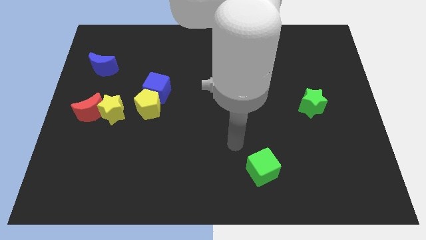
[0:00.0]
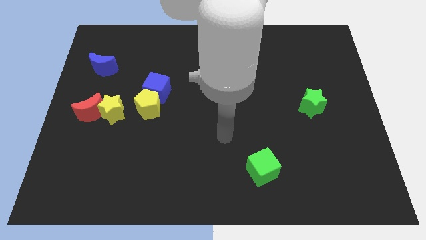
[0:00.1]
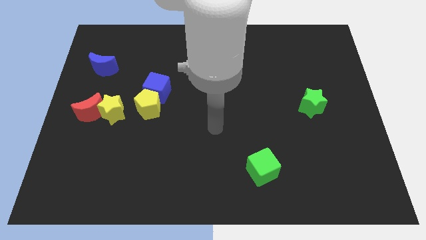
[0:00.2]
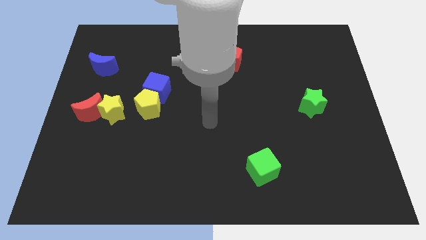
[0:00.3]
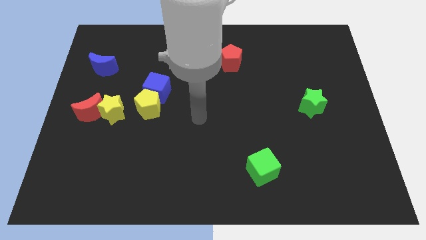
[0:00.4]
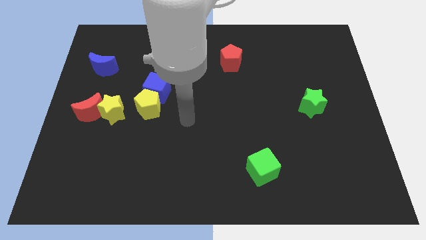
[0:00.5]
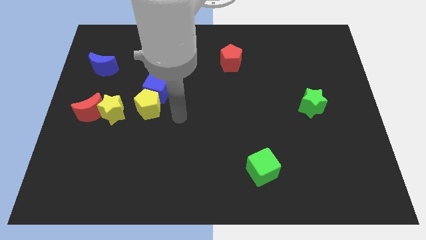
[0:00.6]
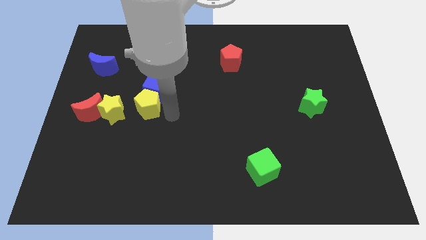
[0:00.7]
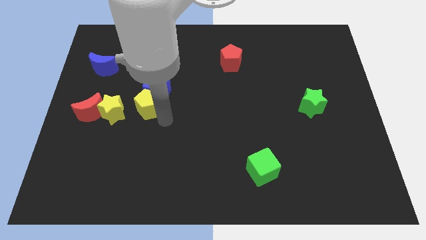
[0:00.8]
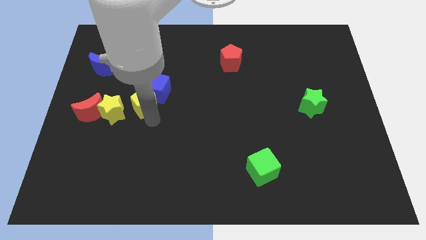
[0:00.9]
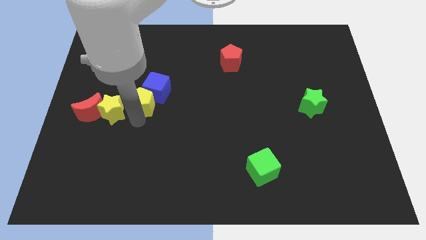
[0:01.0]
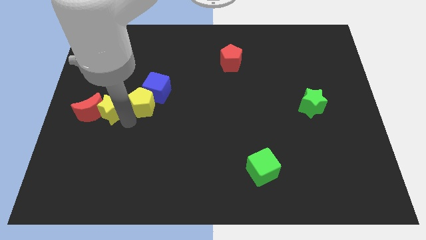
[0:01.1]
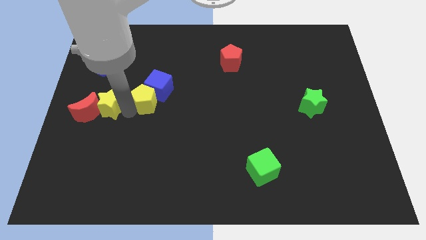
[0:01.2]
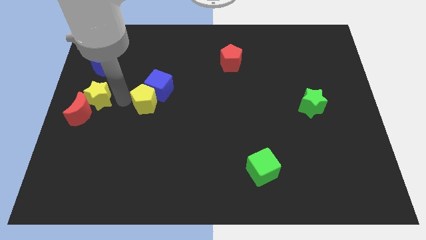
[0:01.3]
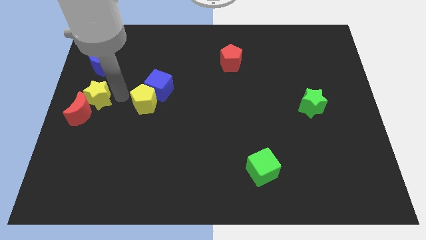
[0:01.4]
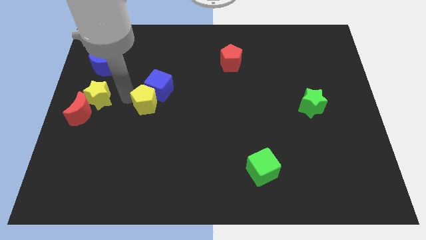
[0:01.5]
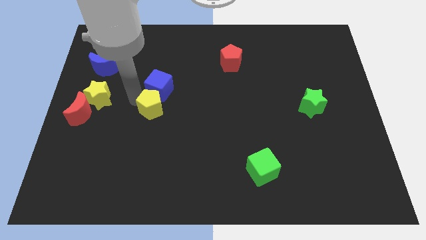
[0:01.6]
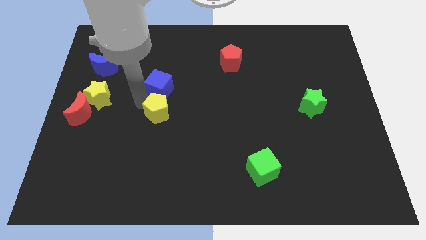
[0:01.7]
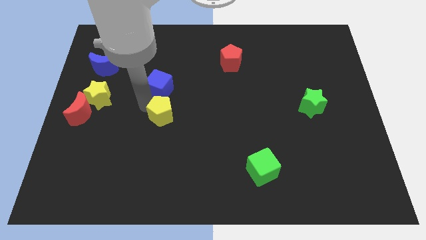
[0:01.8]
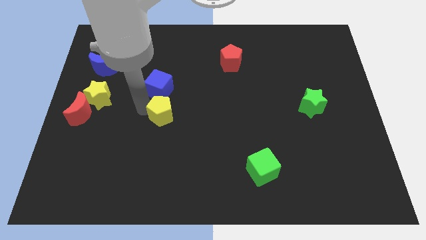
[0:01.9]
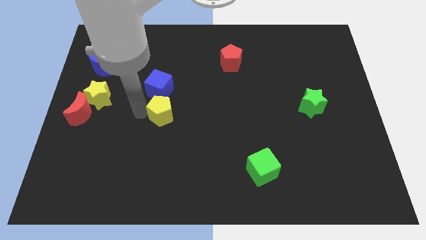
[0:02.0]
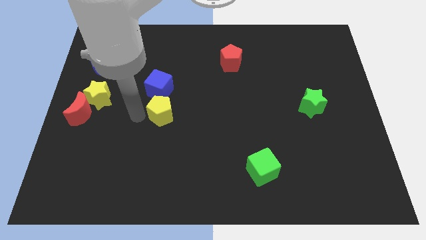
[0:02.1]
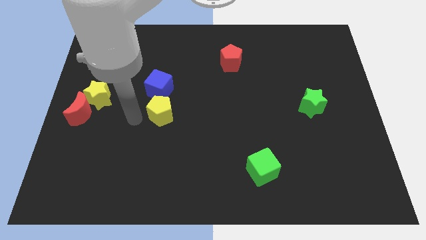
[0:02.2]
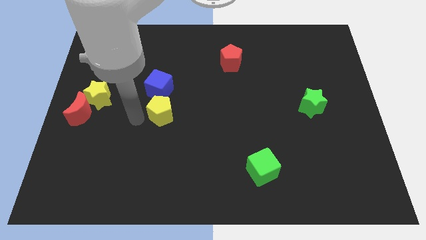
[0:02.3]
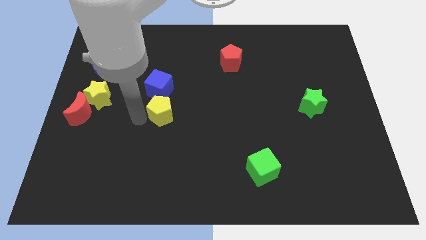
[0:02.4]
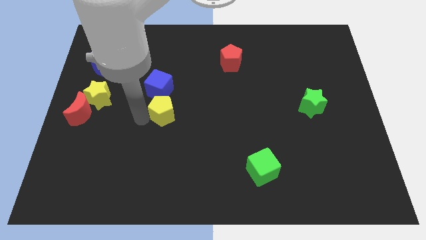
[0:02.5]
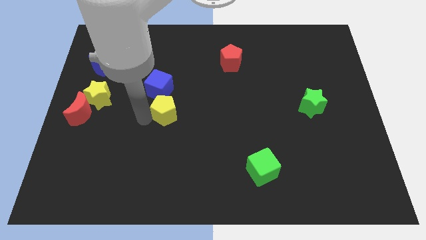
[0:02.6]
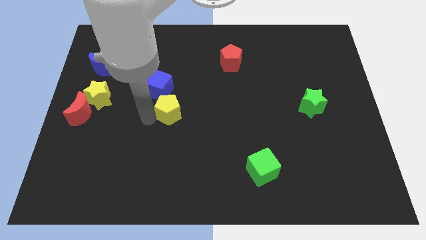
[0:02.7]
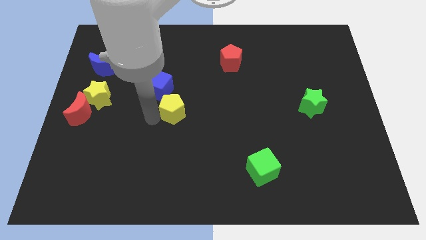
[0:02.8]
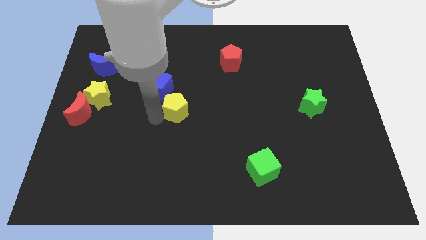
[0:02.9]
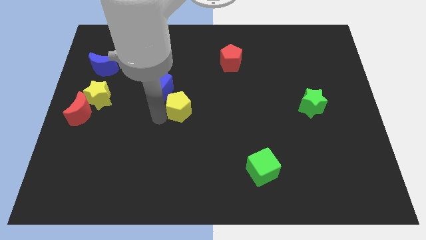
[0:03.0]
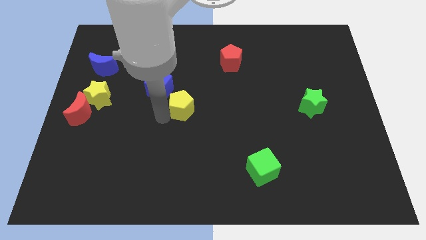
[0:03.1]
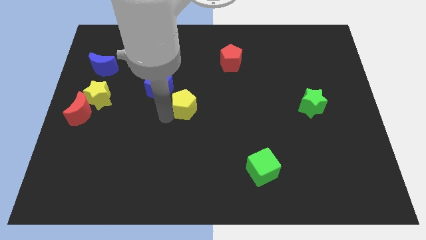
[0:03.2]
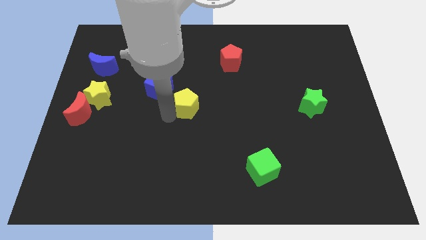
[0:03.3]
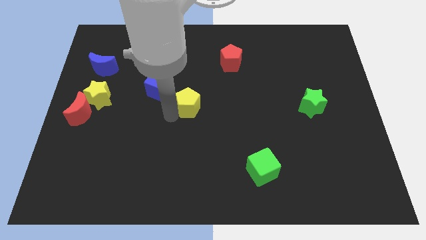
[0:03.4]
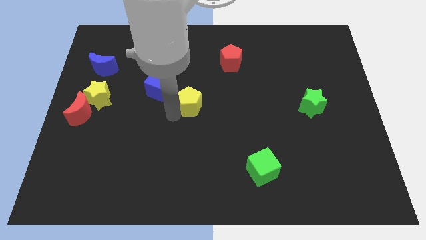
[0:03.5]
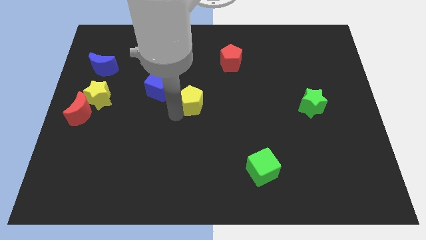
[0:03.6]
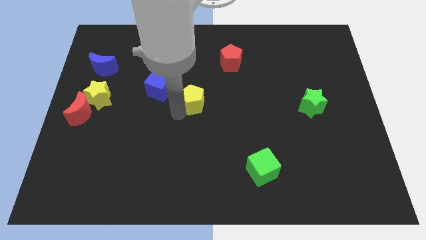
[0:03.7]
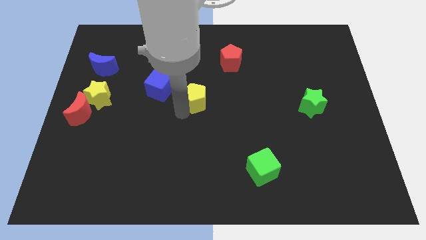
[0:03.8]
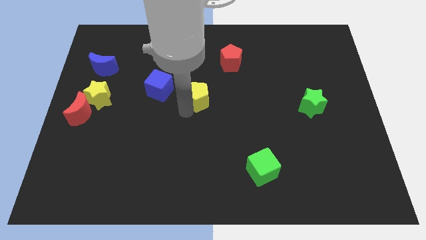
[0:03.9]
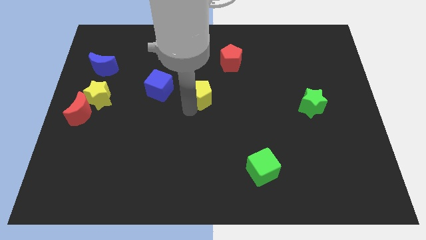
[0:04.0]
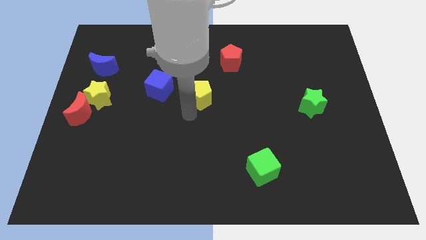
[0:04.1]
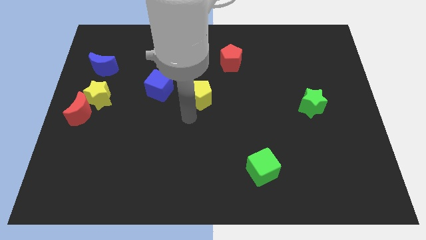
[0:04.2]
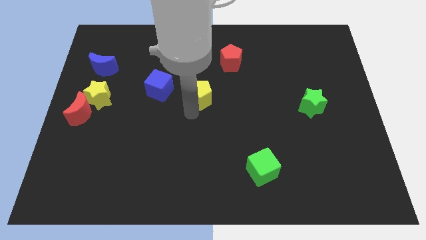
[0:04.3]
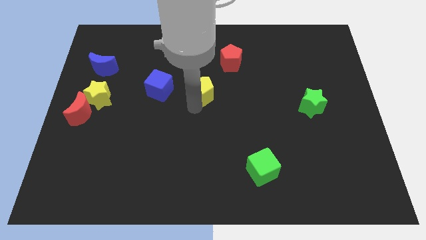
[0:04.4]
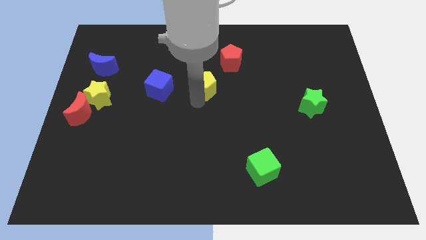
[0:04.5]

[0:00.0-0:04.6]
slide the yellow pentagon to the bottom left of the red pentagon

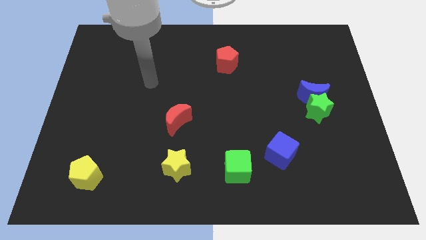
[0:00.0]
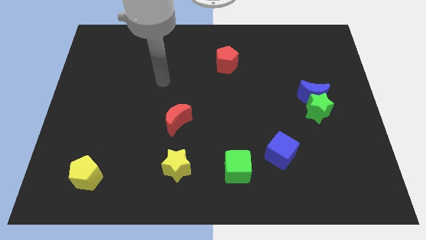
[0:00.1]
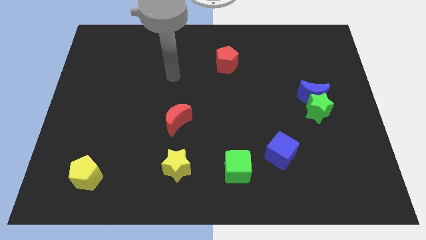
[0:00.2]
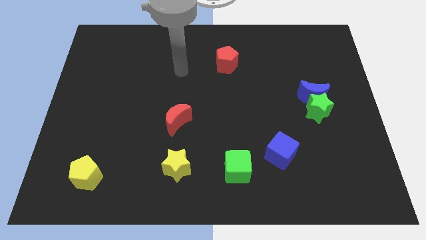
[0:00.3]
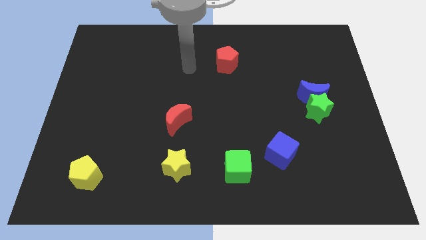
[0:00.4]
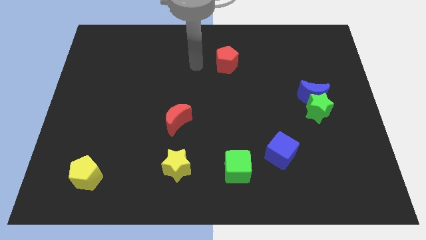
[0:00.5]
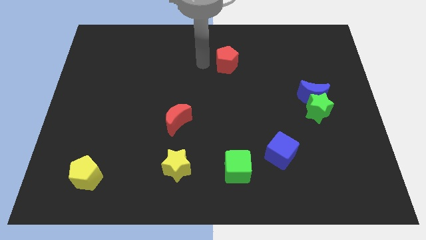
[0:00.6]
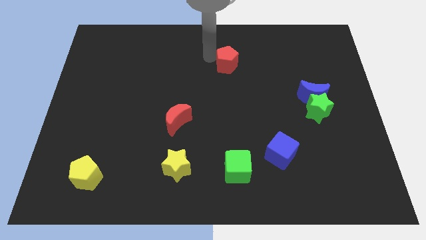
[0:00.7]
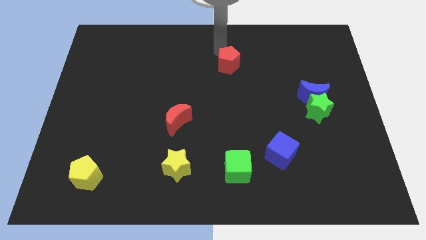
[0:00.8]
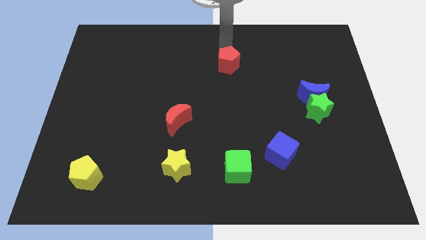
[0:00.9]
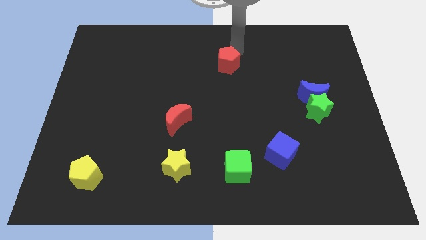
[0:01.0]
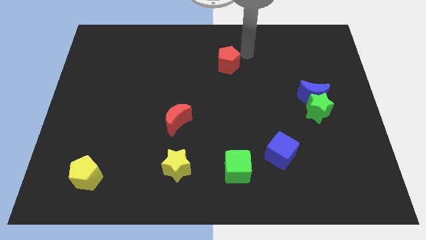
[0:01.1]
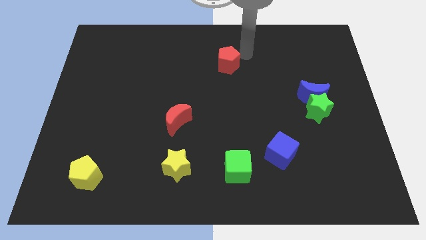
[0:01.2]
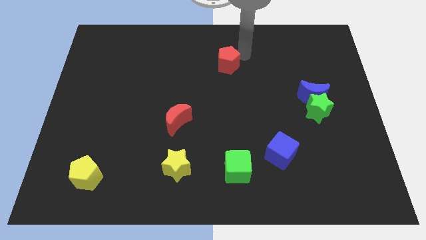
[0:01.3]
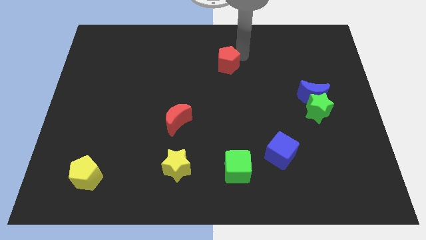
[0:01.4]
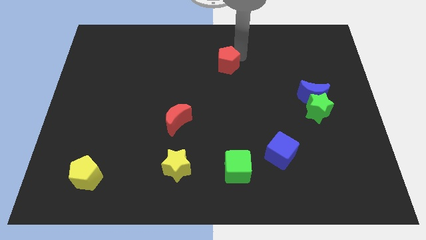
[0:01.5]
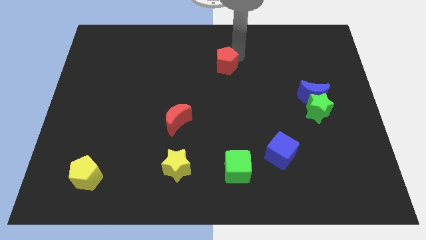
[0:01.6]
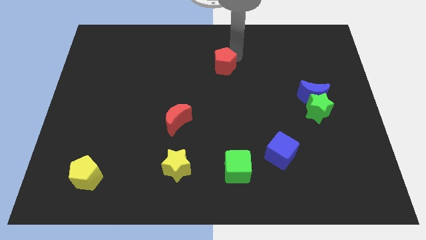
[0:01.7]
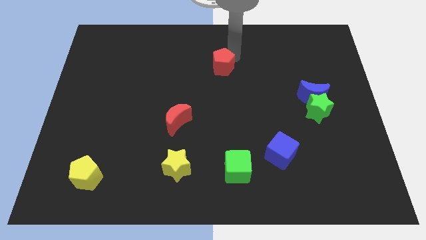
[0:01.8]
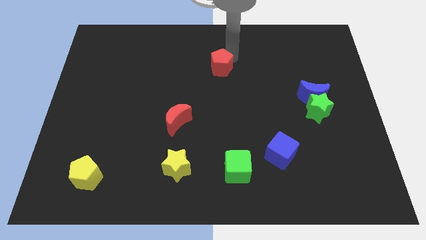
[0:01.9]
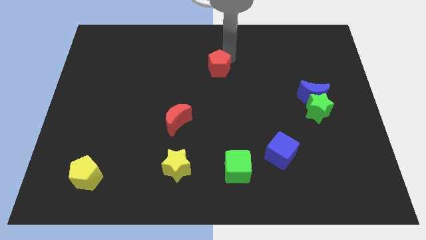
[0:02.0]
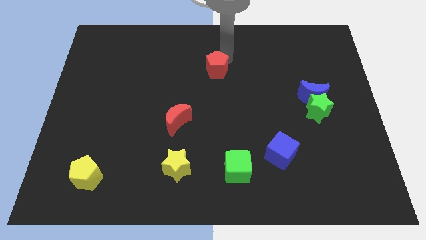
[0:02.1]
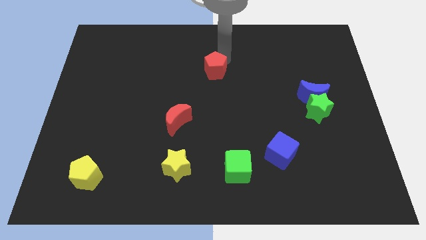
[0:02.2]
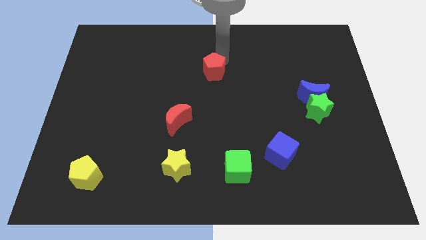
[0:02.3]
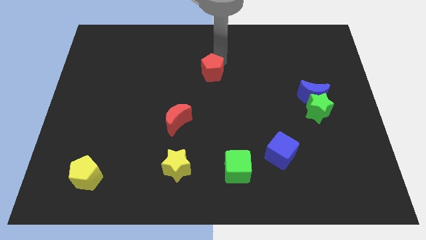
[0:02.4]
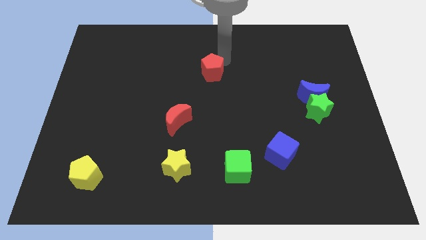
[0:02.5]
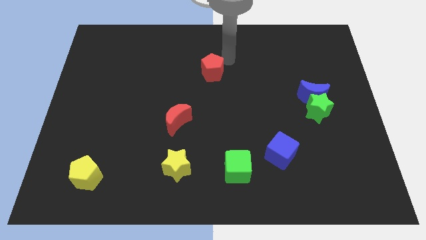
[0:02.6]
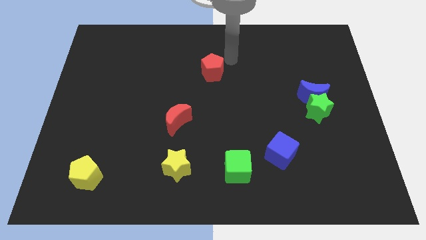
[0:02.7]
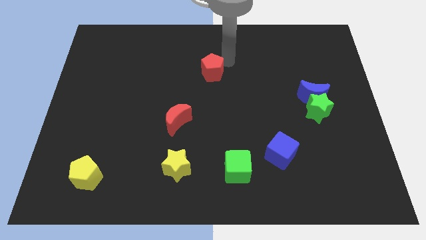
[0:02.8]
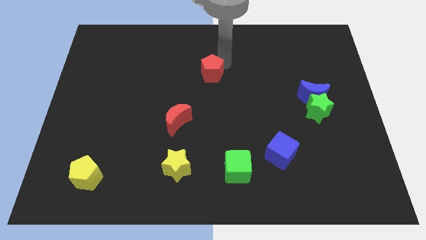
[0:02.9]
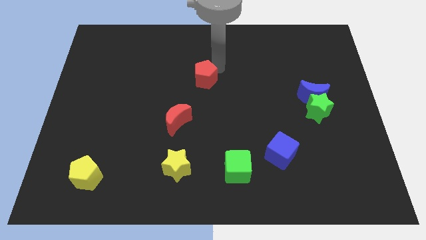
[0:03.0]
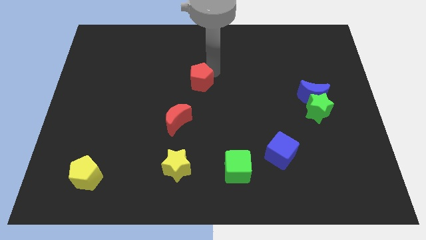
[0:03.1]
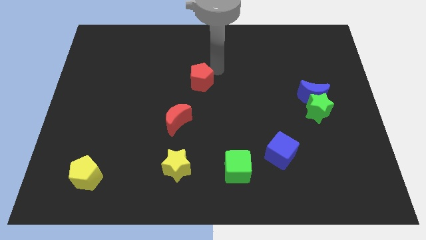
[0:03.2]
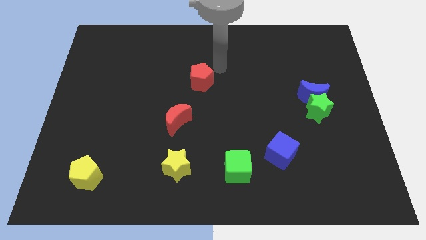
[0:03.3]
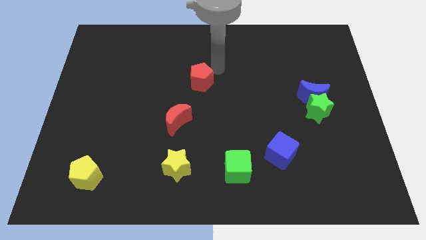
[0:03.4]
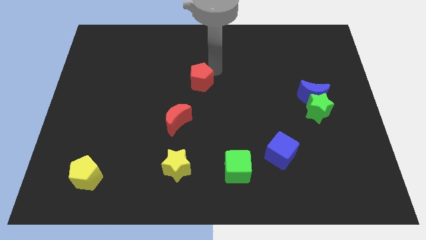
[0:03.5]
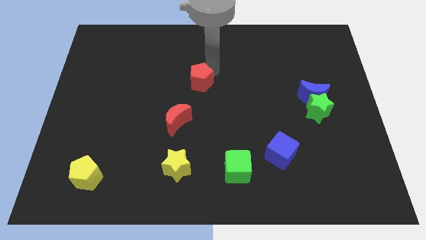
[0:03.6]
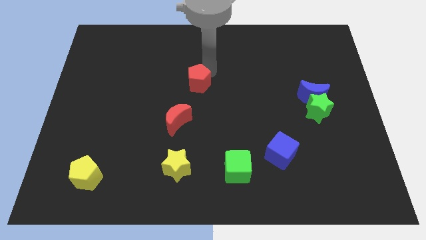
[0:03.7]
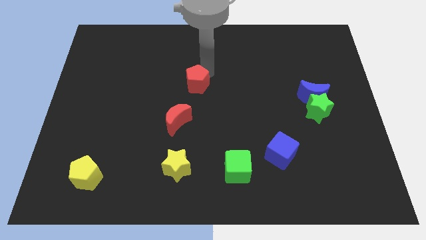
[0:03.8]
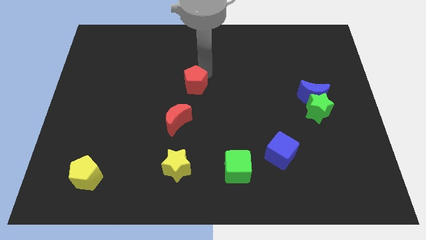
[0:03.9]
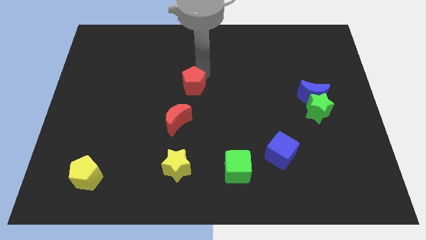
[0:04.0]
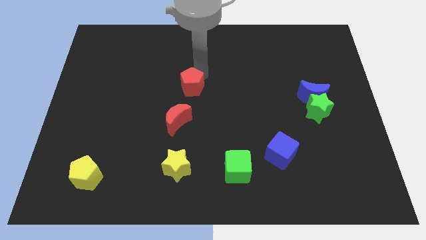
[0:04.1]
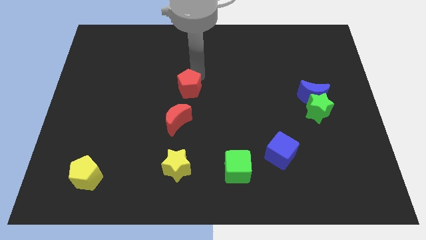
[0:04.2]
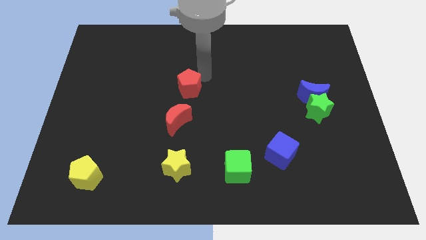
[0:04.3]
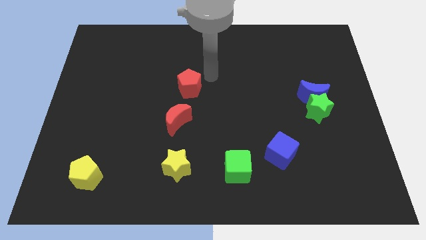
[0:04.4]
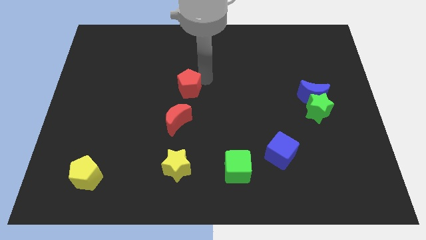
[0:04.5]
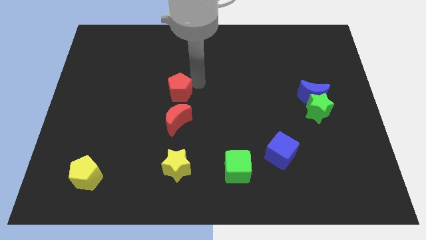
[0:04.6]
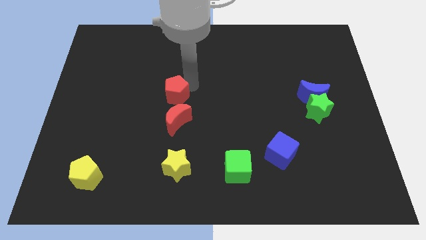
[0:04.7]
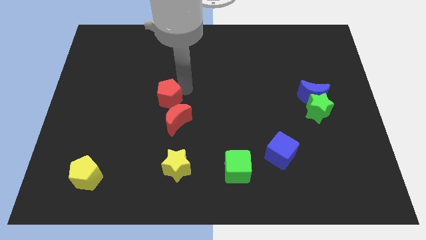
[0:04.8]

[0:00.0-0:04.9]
push the red pentagon diagonally up and to the left of the red moon
